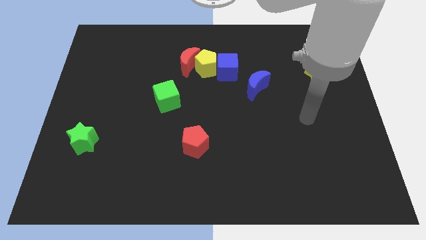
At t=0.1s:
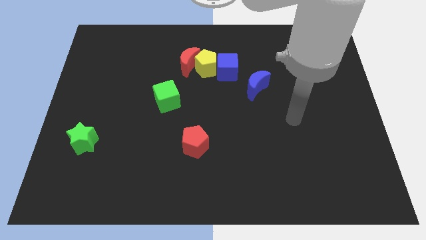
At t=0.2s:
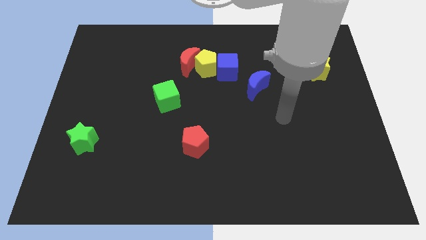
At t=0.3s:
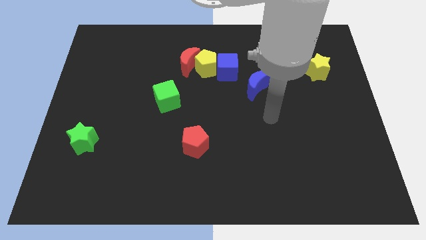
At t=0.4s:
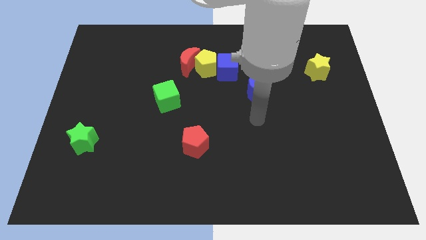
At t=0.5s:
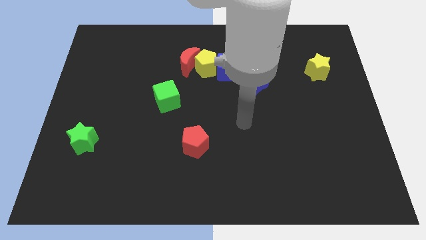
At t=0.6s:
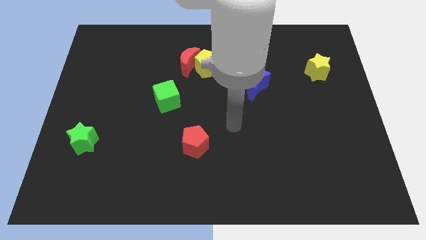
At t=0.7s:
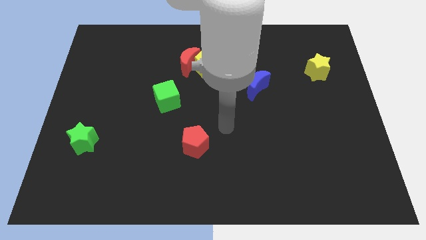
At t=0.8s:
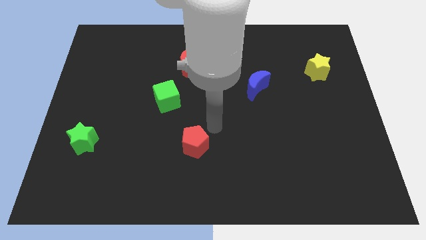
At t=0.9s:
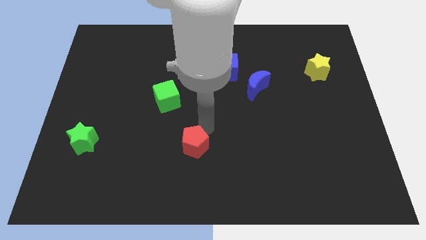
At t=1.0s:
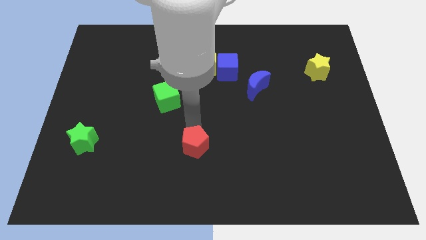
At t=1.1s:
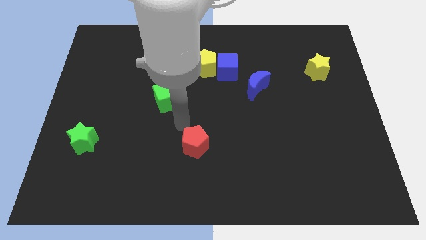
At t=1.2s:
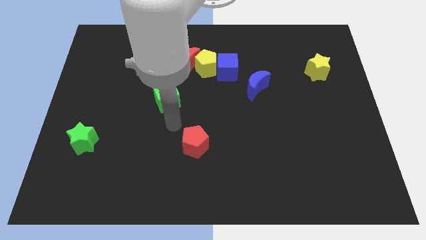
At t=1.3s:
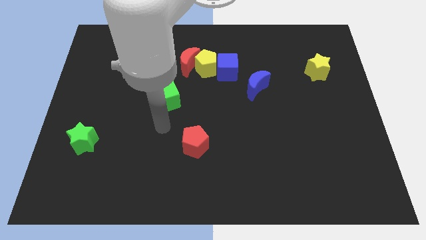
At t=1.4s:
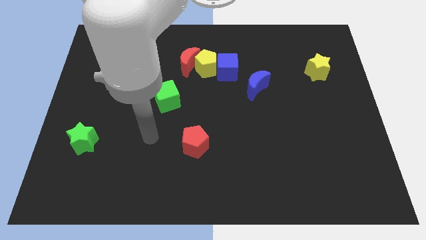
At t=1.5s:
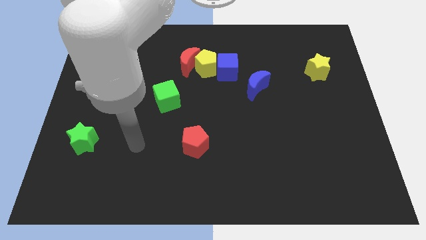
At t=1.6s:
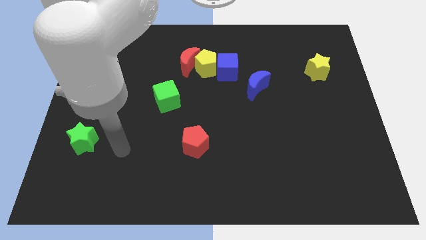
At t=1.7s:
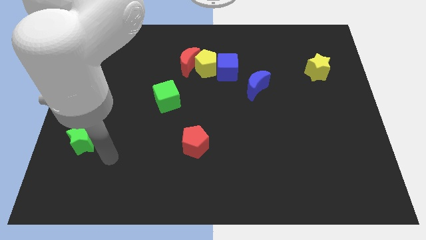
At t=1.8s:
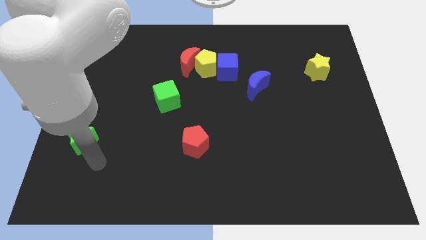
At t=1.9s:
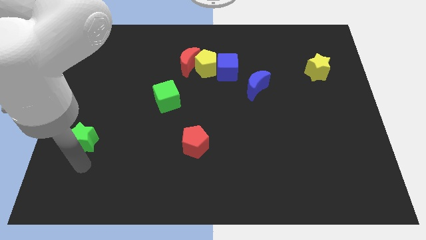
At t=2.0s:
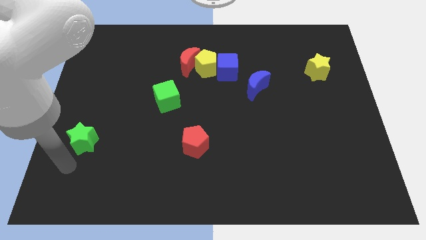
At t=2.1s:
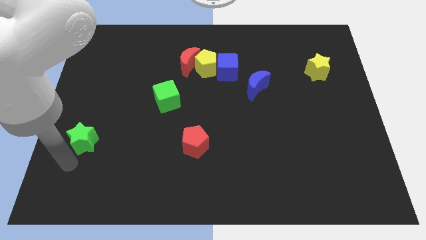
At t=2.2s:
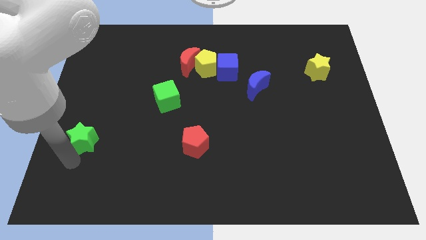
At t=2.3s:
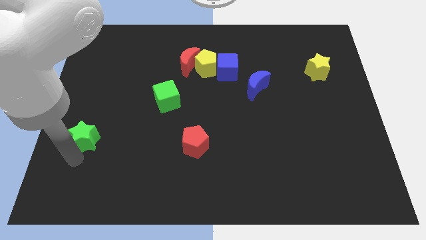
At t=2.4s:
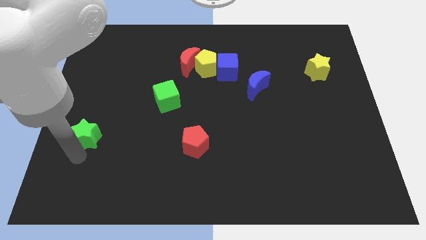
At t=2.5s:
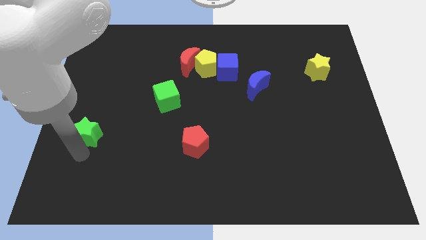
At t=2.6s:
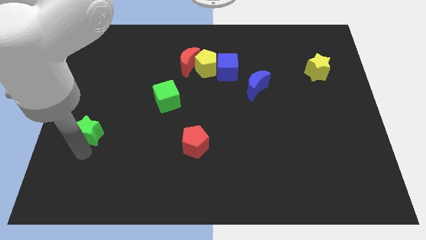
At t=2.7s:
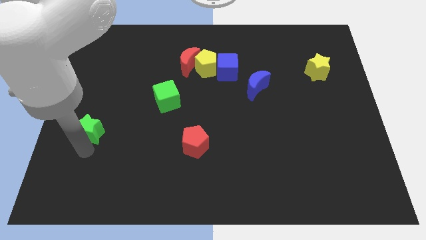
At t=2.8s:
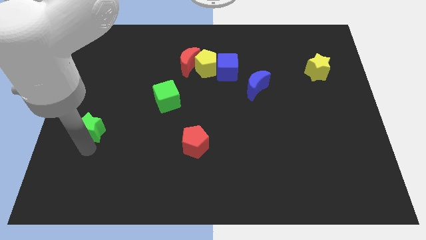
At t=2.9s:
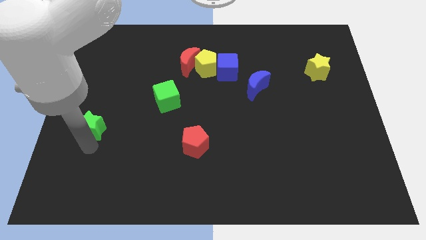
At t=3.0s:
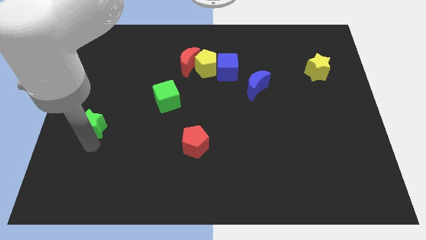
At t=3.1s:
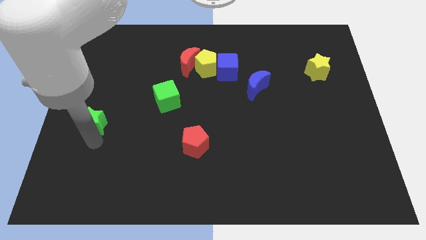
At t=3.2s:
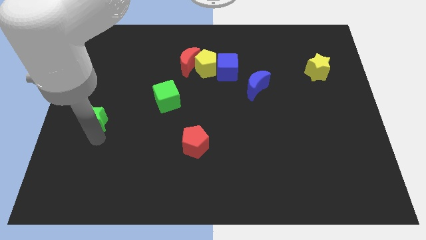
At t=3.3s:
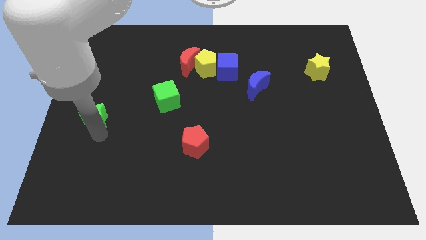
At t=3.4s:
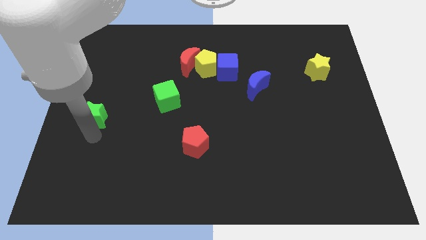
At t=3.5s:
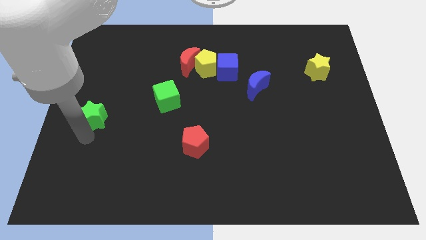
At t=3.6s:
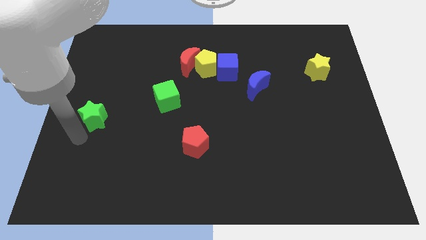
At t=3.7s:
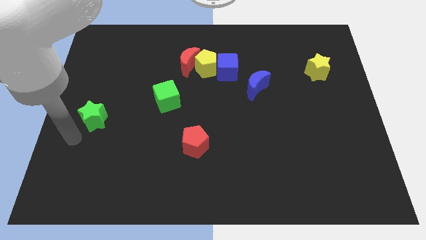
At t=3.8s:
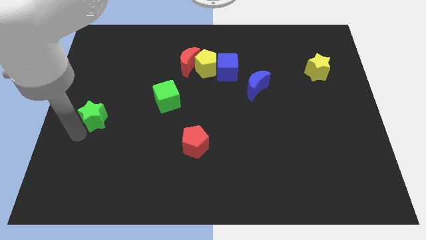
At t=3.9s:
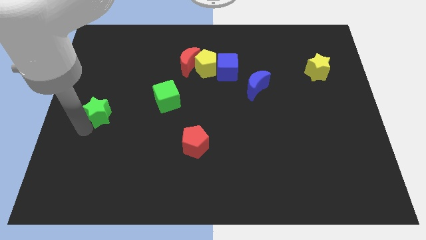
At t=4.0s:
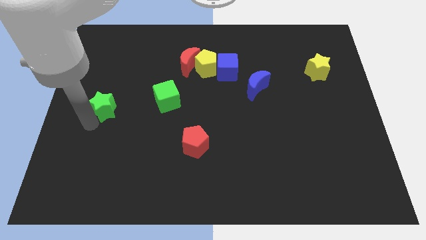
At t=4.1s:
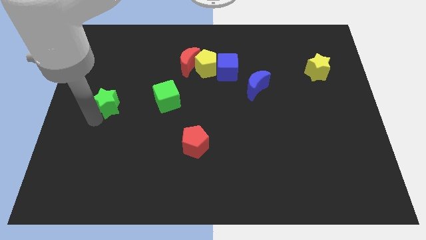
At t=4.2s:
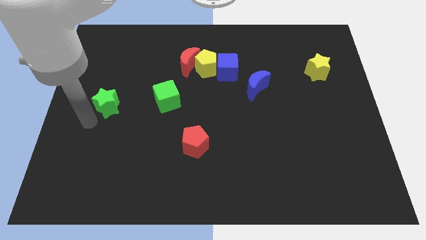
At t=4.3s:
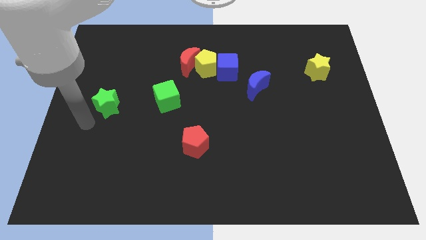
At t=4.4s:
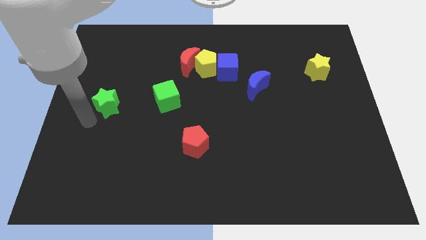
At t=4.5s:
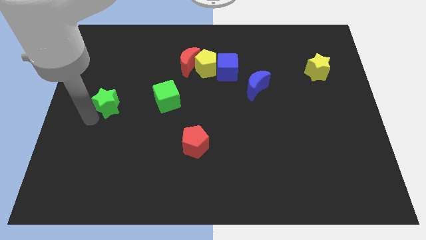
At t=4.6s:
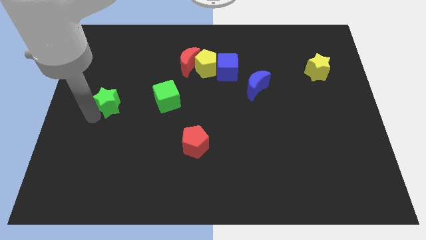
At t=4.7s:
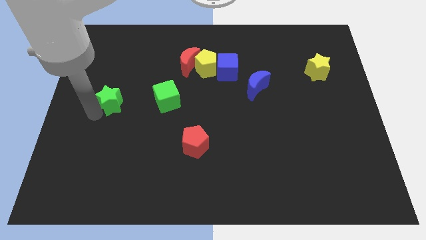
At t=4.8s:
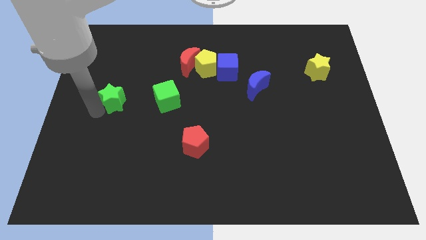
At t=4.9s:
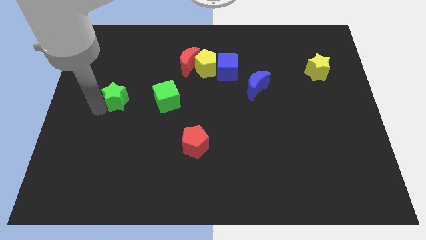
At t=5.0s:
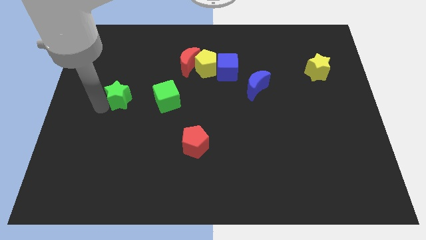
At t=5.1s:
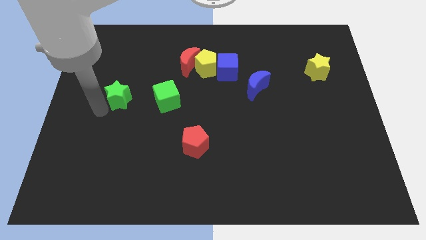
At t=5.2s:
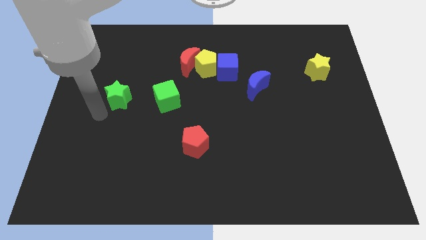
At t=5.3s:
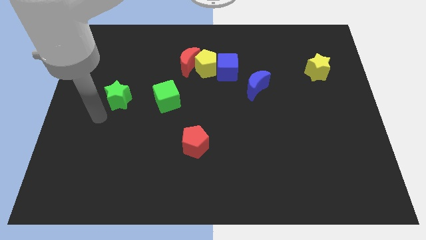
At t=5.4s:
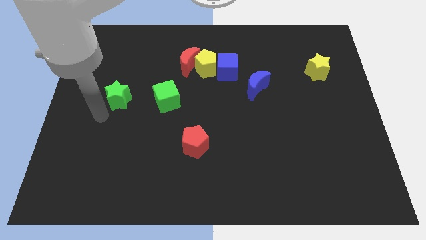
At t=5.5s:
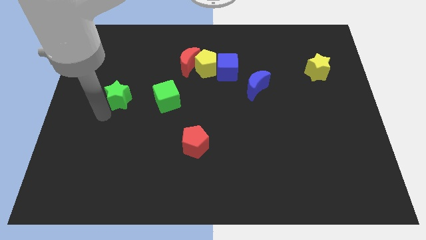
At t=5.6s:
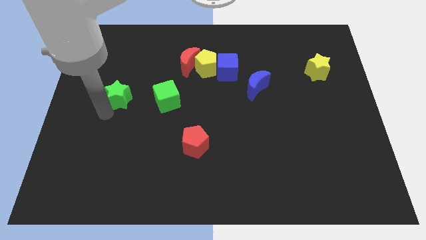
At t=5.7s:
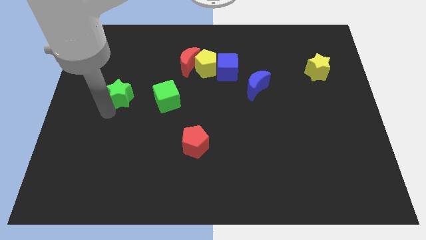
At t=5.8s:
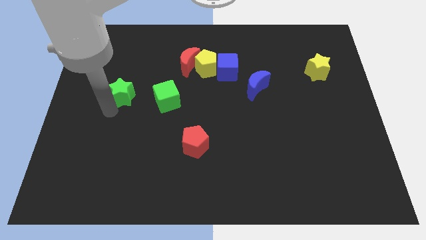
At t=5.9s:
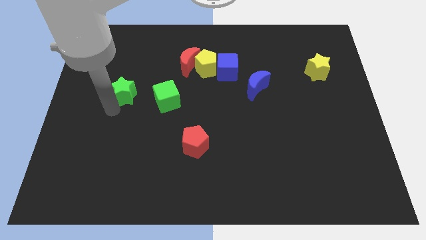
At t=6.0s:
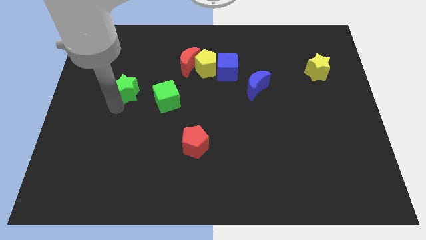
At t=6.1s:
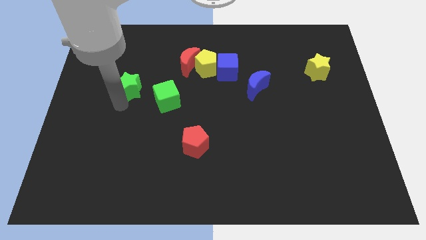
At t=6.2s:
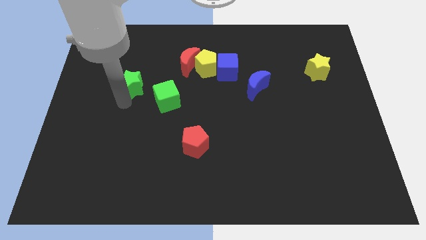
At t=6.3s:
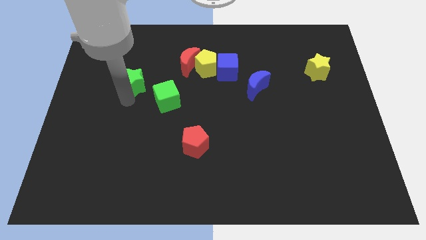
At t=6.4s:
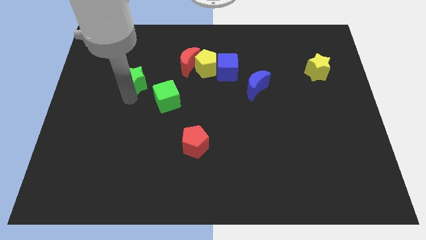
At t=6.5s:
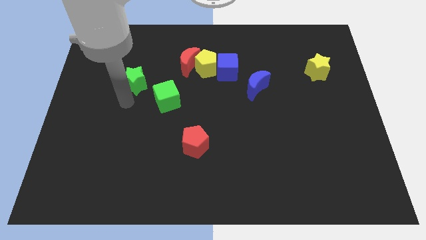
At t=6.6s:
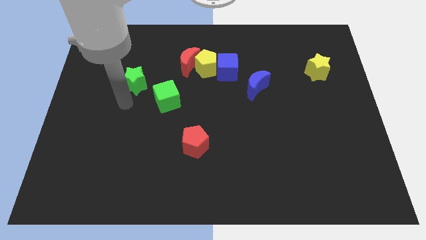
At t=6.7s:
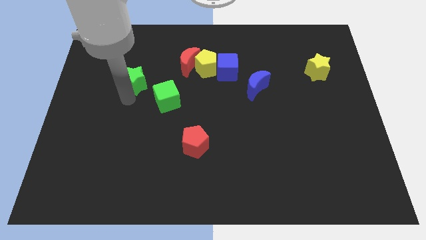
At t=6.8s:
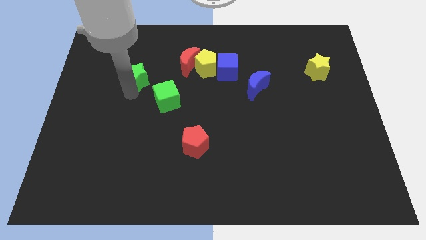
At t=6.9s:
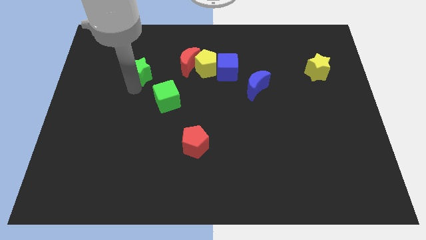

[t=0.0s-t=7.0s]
slide the green star just left of the red moon
